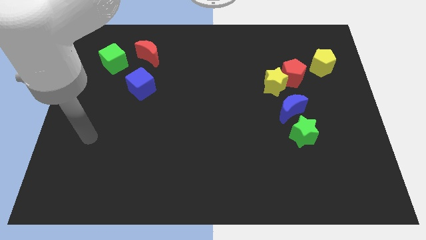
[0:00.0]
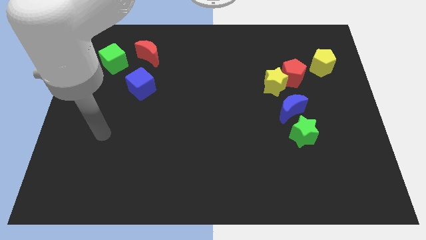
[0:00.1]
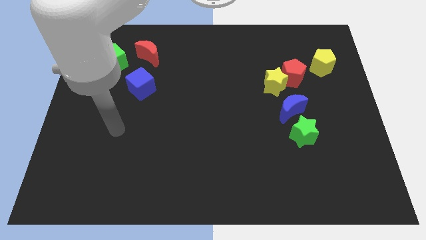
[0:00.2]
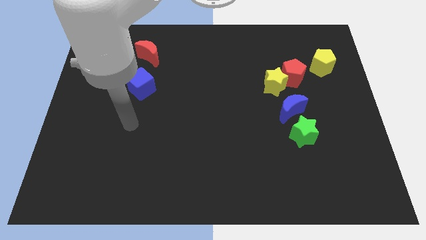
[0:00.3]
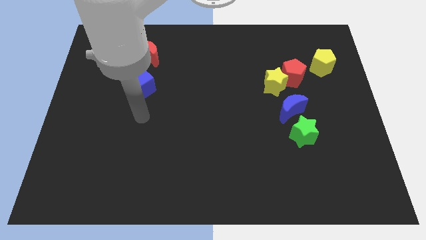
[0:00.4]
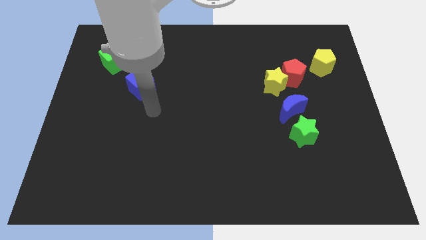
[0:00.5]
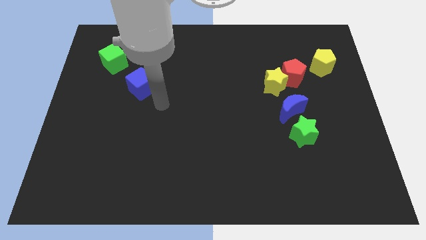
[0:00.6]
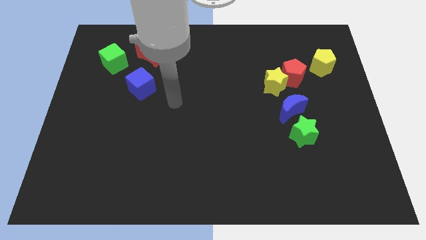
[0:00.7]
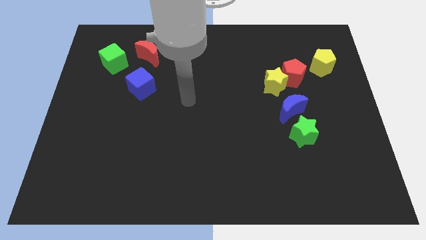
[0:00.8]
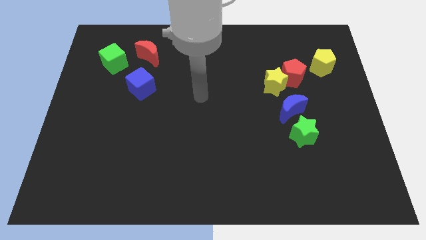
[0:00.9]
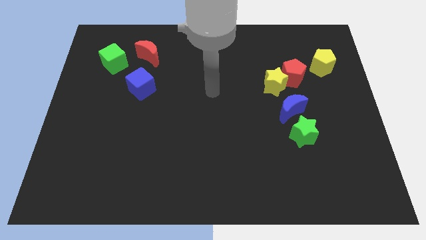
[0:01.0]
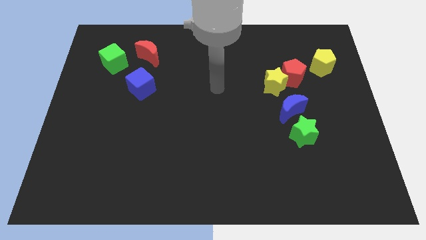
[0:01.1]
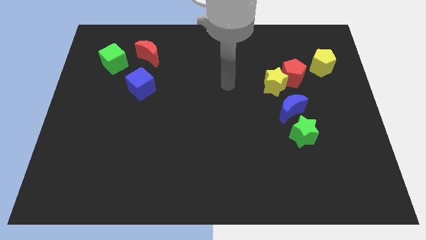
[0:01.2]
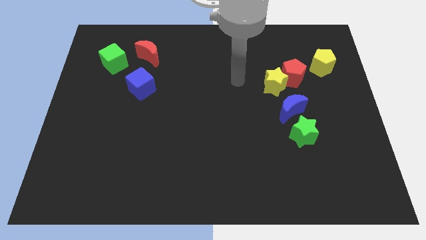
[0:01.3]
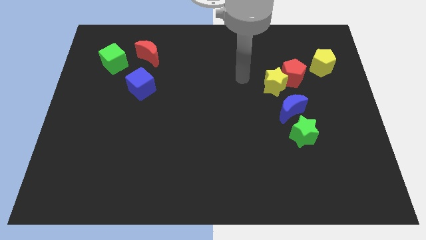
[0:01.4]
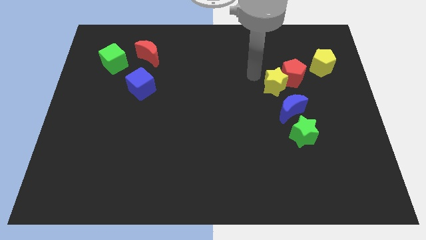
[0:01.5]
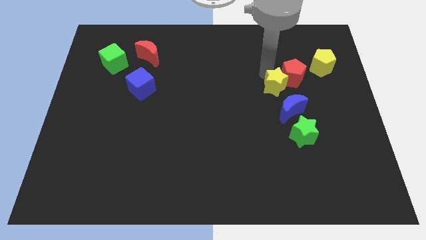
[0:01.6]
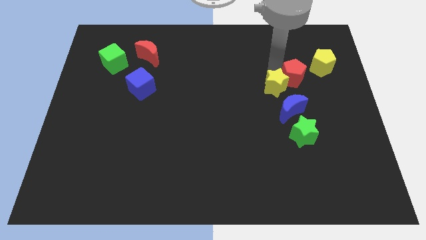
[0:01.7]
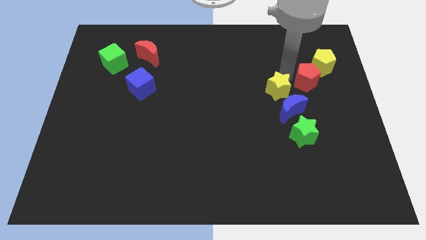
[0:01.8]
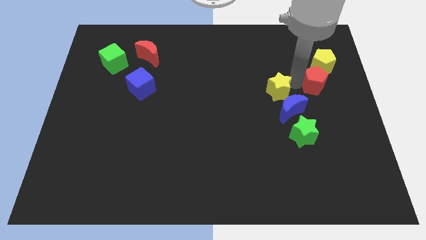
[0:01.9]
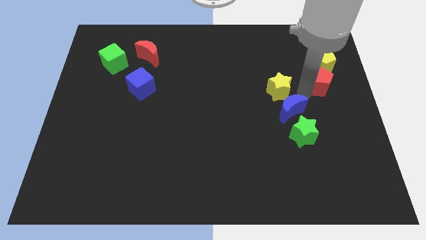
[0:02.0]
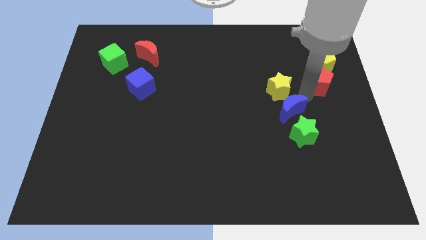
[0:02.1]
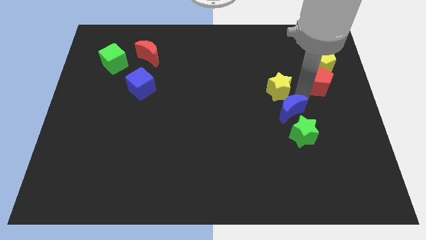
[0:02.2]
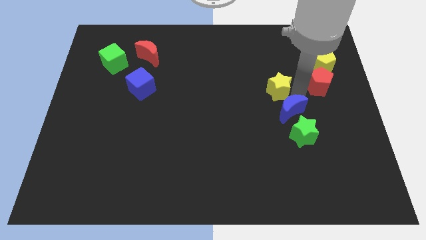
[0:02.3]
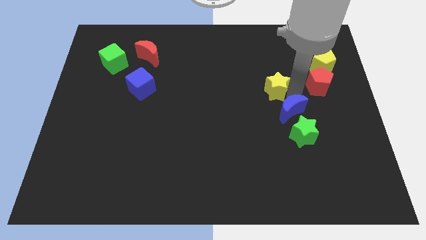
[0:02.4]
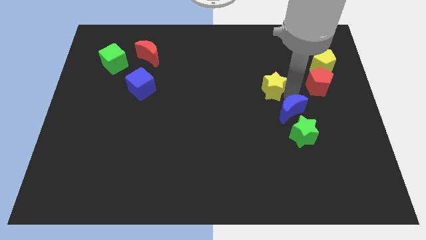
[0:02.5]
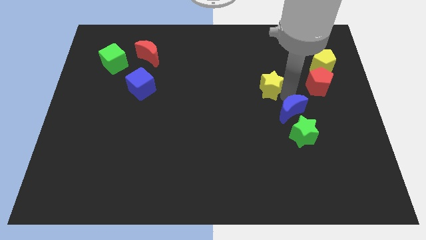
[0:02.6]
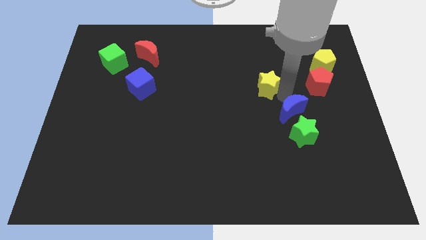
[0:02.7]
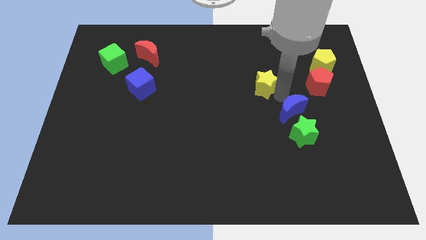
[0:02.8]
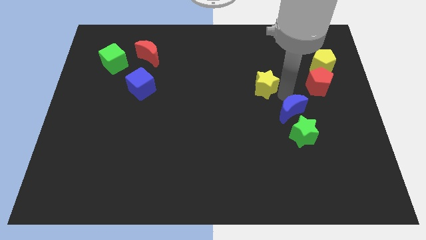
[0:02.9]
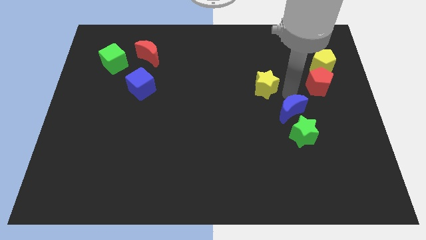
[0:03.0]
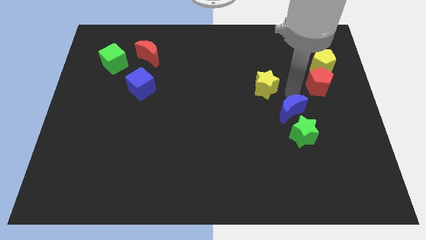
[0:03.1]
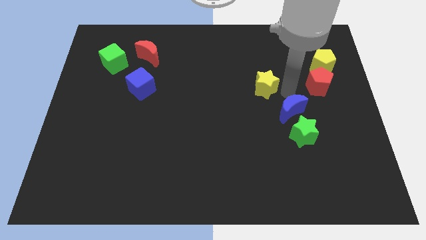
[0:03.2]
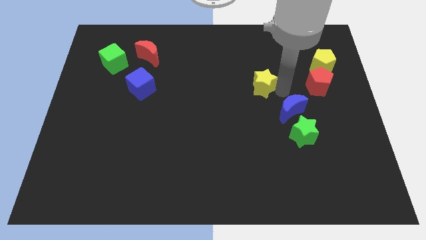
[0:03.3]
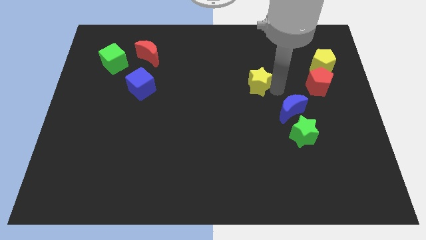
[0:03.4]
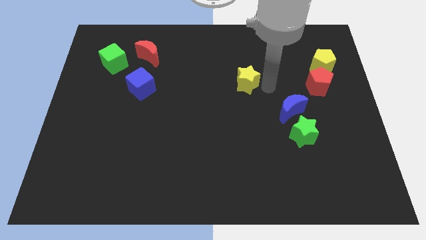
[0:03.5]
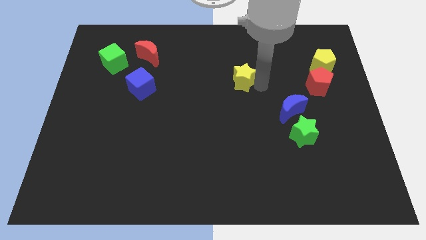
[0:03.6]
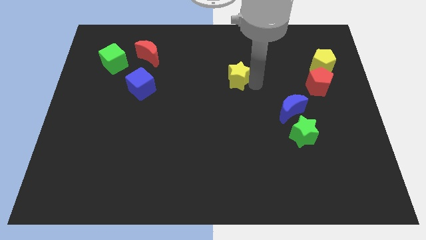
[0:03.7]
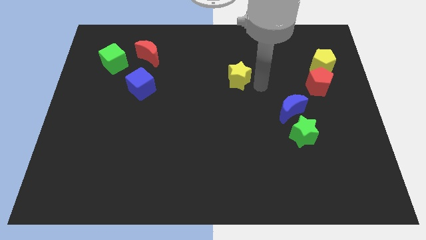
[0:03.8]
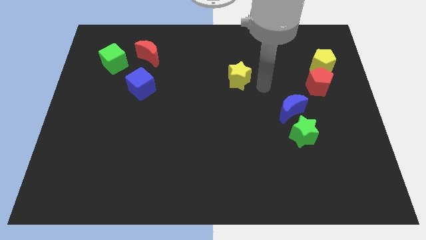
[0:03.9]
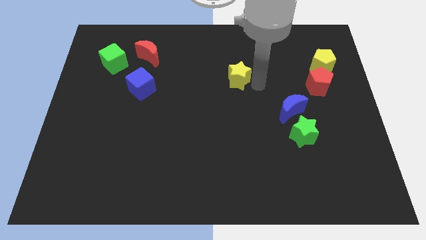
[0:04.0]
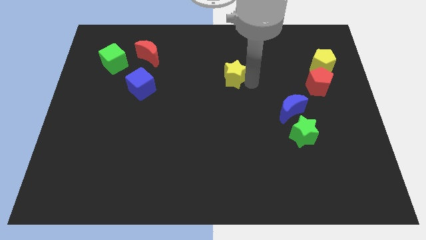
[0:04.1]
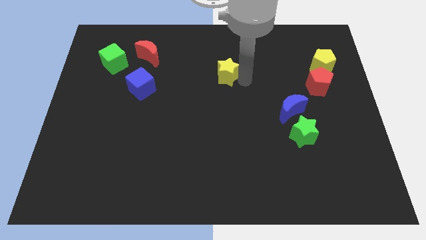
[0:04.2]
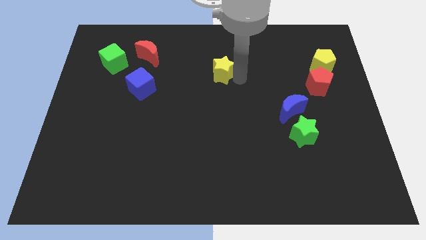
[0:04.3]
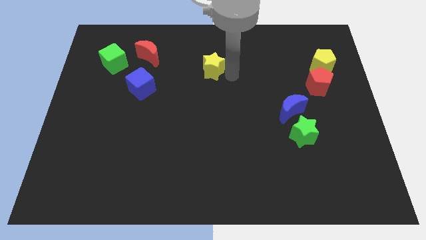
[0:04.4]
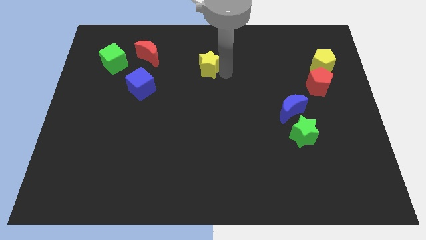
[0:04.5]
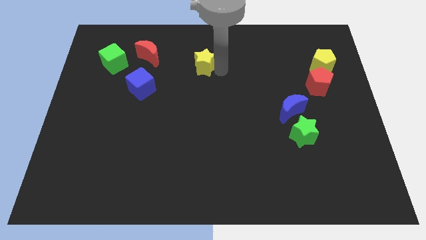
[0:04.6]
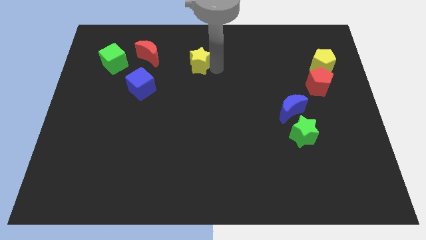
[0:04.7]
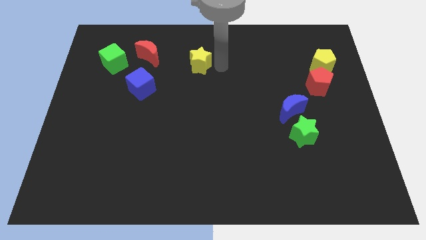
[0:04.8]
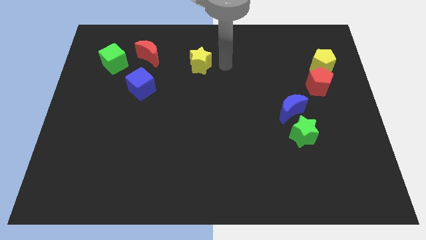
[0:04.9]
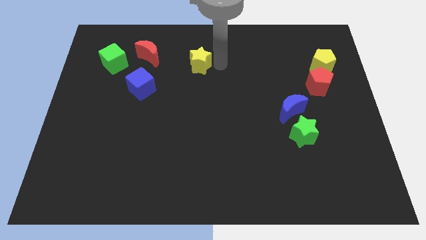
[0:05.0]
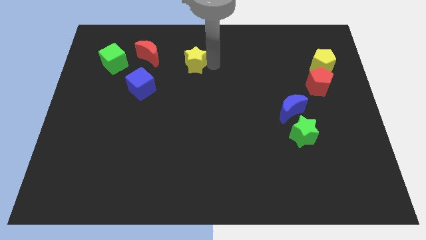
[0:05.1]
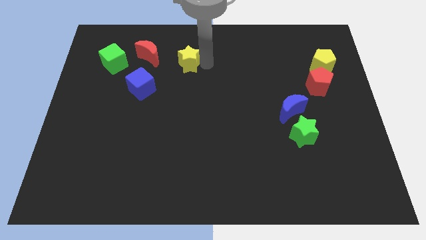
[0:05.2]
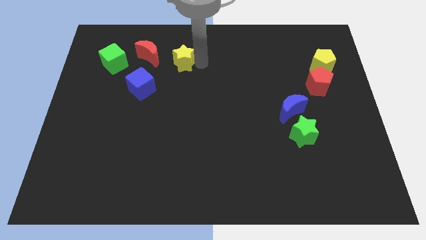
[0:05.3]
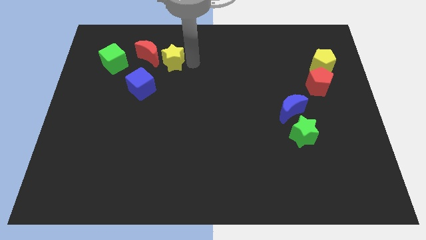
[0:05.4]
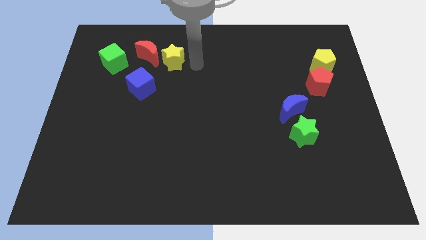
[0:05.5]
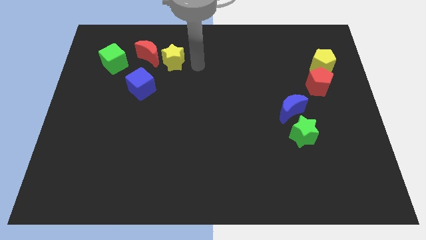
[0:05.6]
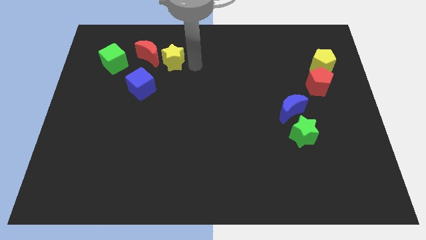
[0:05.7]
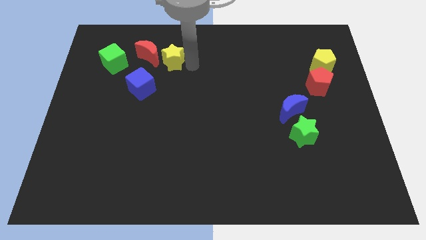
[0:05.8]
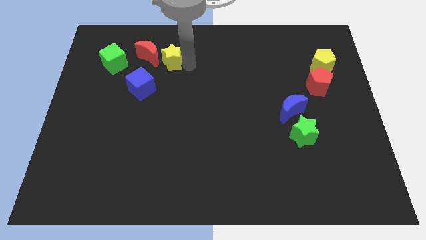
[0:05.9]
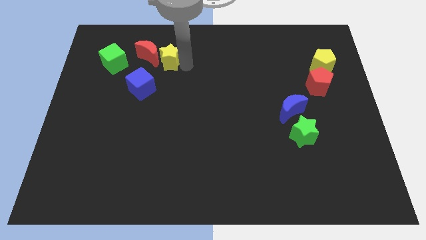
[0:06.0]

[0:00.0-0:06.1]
slide the yellow star towards the red moon

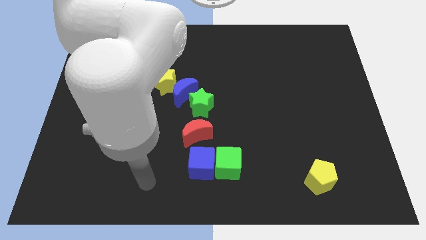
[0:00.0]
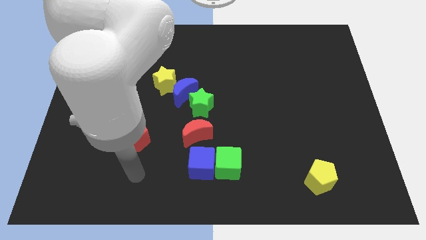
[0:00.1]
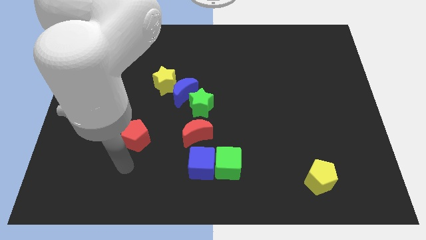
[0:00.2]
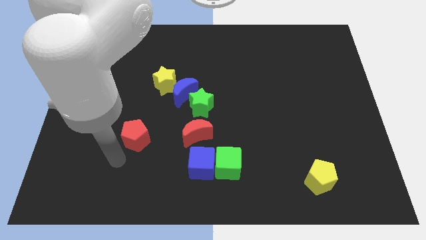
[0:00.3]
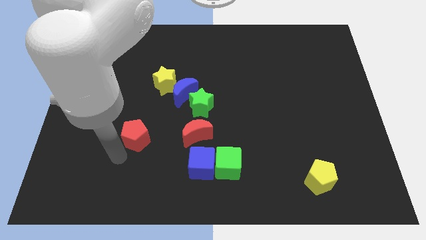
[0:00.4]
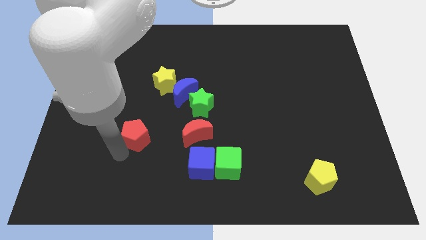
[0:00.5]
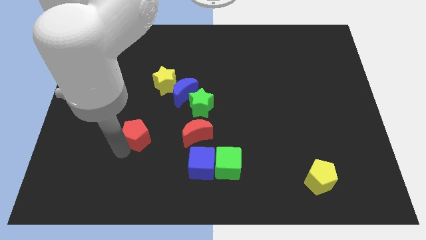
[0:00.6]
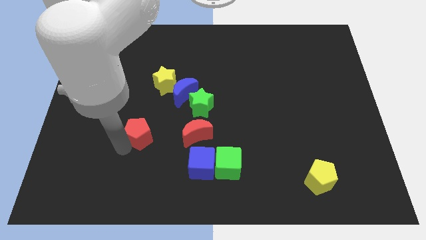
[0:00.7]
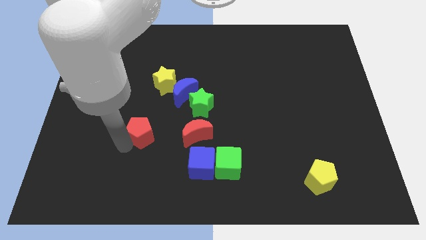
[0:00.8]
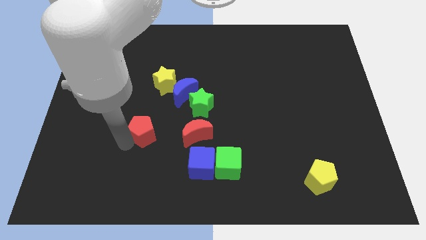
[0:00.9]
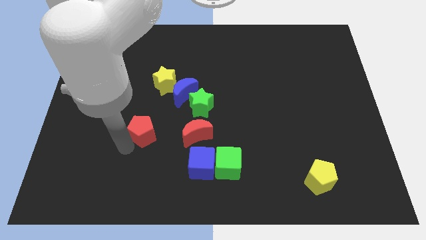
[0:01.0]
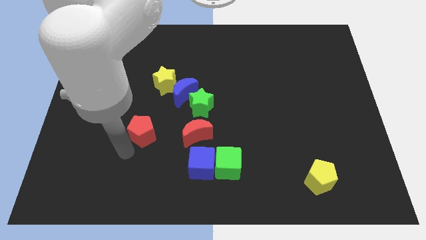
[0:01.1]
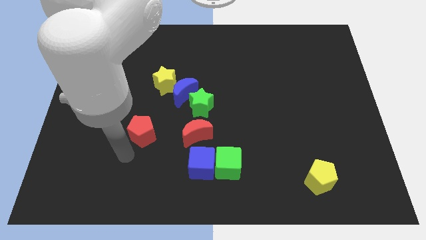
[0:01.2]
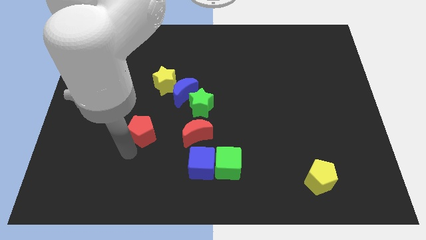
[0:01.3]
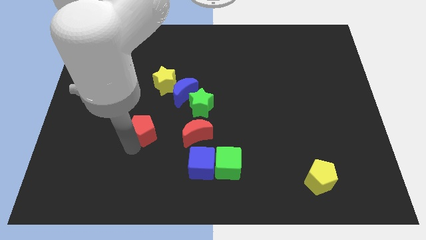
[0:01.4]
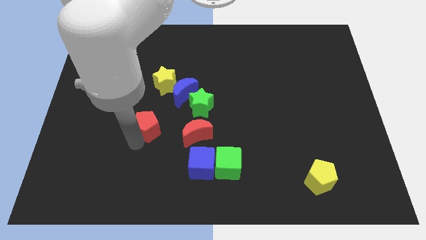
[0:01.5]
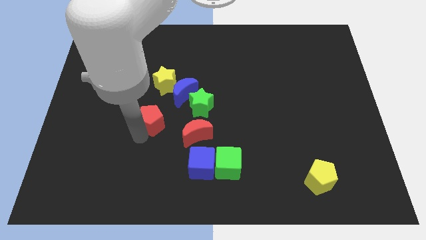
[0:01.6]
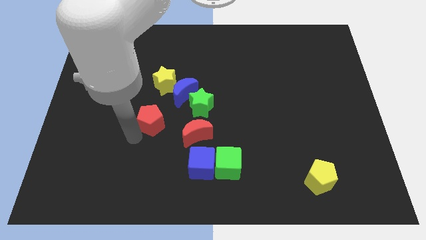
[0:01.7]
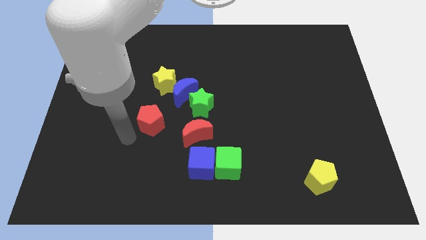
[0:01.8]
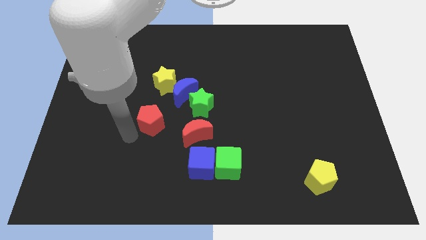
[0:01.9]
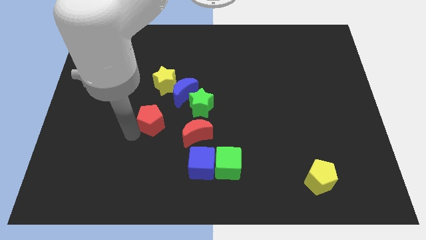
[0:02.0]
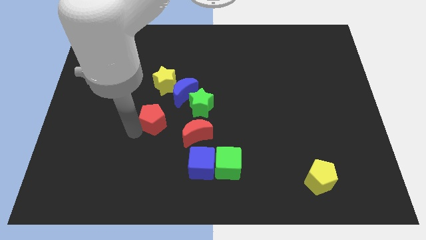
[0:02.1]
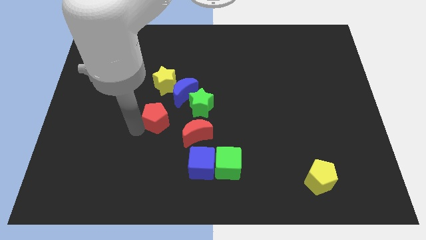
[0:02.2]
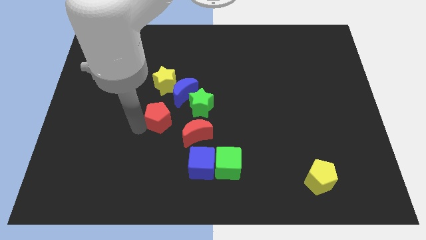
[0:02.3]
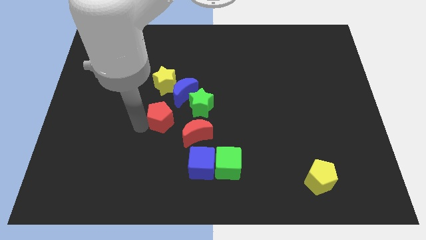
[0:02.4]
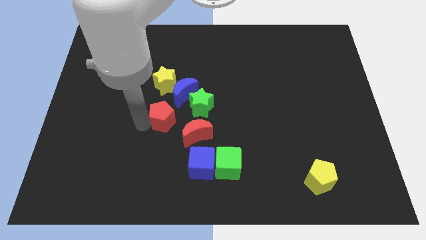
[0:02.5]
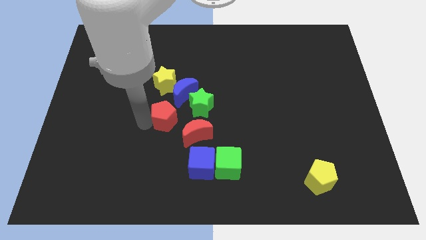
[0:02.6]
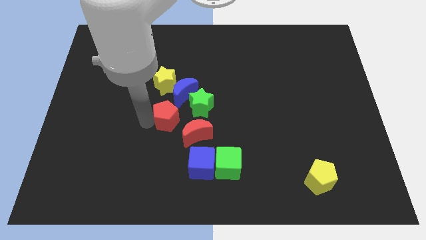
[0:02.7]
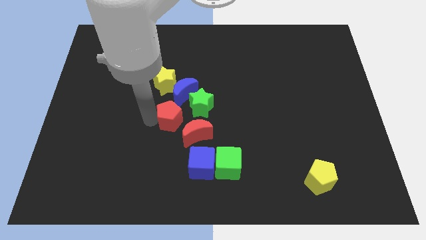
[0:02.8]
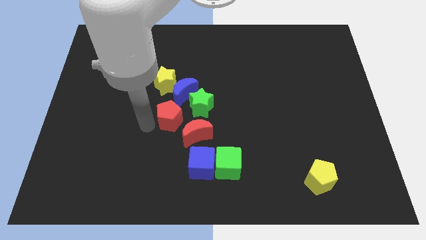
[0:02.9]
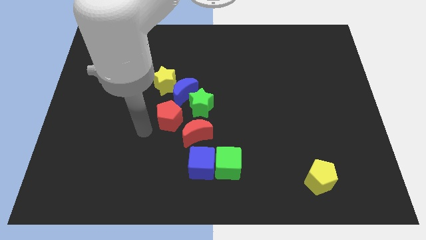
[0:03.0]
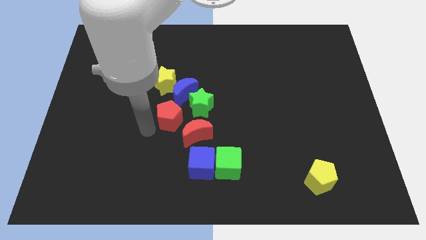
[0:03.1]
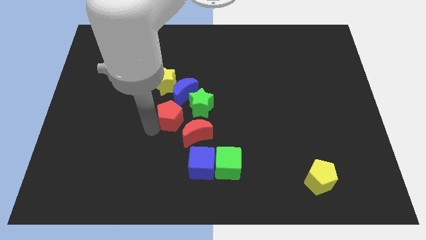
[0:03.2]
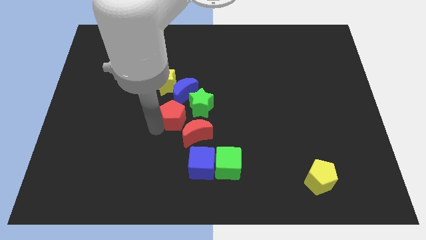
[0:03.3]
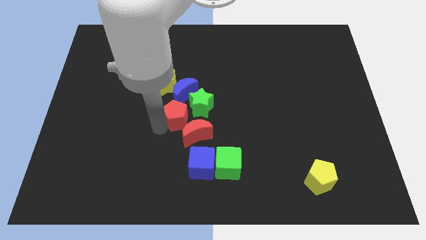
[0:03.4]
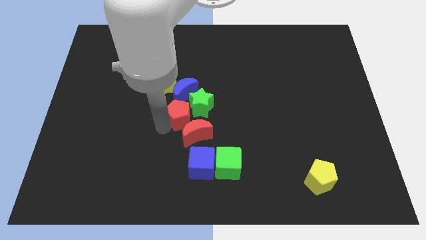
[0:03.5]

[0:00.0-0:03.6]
push the red pentagon towards the green star
